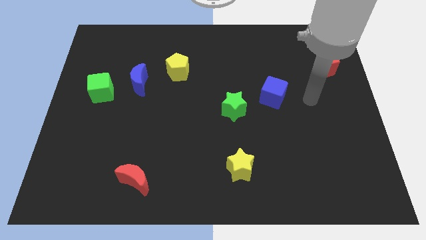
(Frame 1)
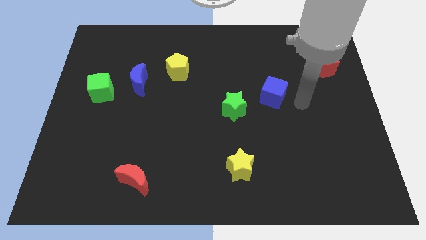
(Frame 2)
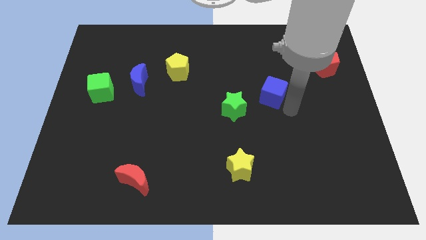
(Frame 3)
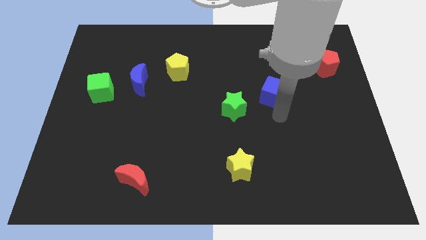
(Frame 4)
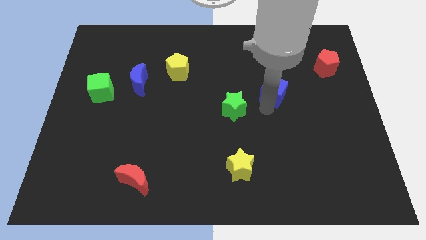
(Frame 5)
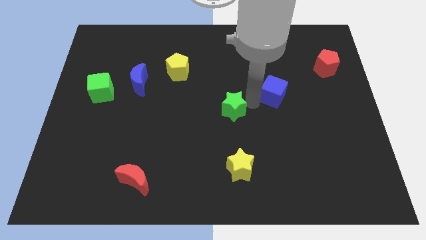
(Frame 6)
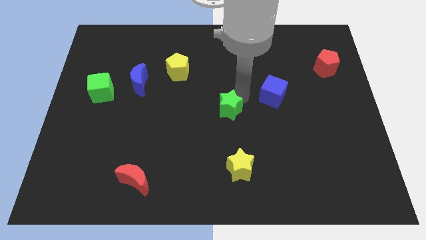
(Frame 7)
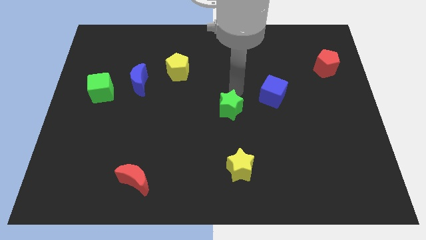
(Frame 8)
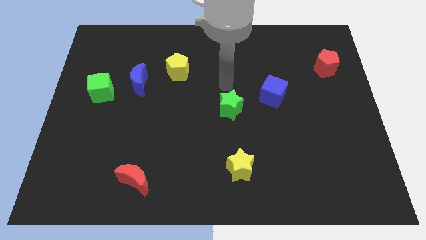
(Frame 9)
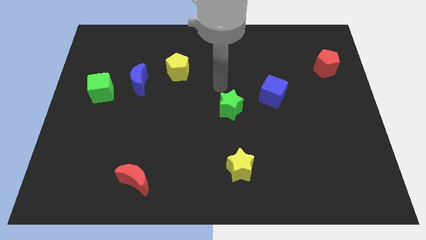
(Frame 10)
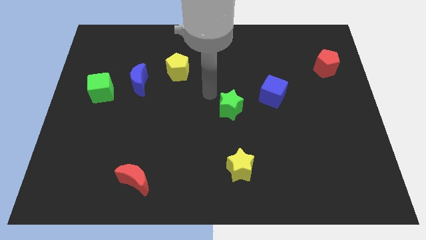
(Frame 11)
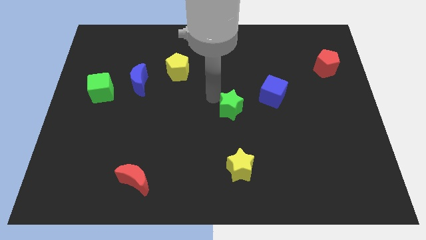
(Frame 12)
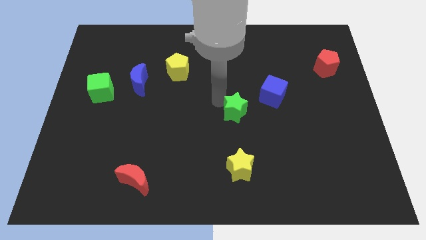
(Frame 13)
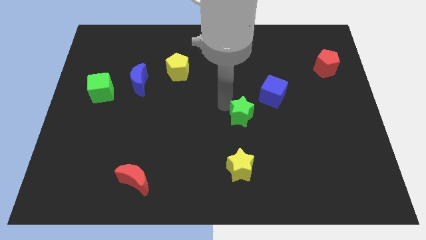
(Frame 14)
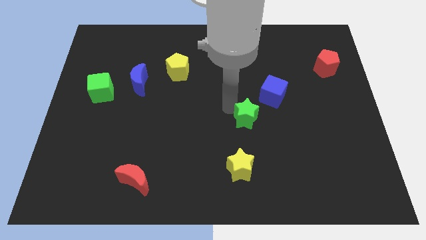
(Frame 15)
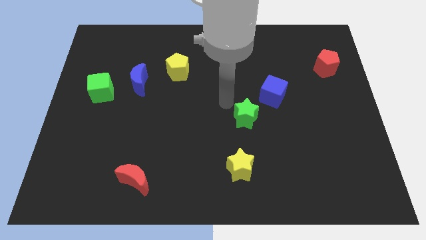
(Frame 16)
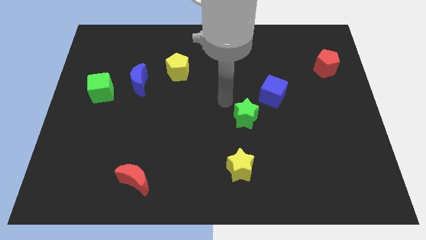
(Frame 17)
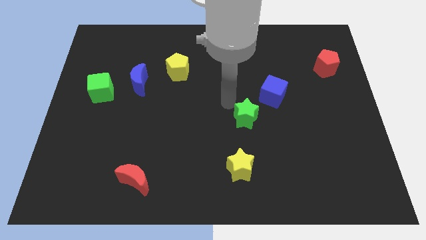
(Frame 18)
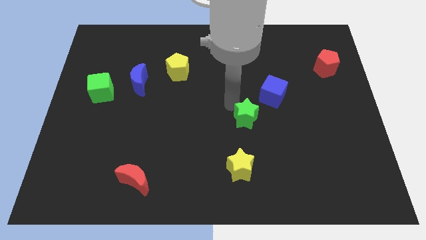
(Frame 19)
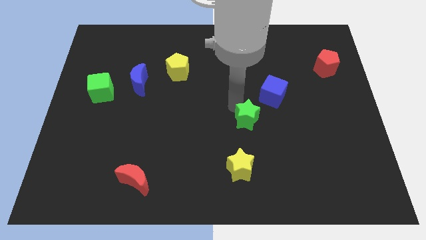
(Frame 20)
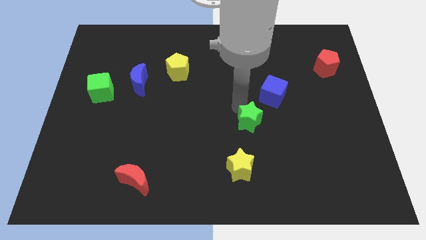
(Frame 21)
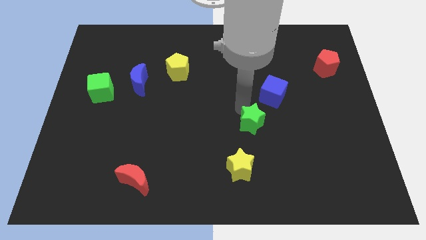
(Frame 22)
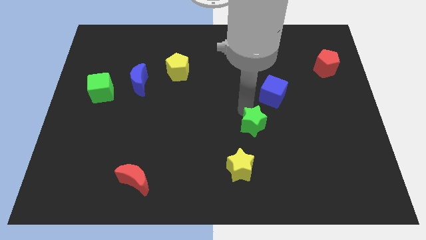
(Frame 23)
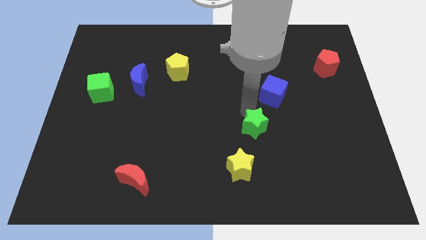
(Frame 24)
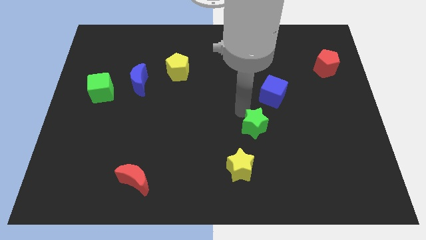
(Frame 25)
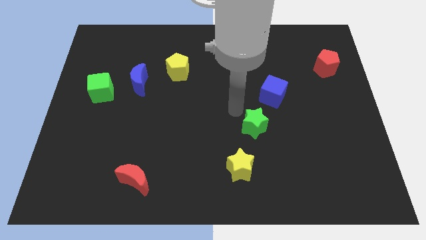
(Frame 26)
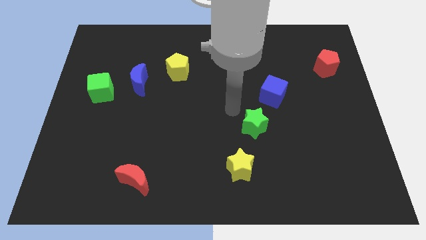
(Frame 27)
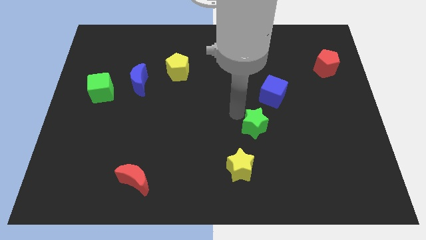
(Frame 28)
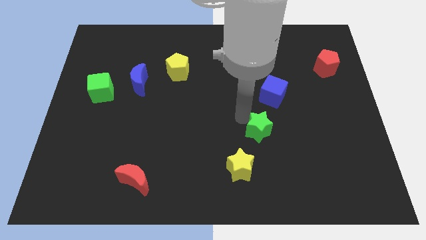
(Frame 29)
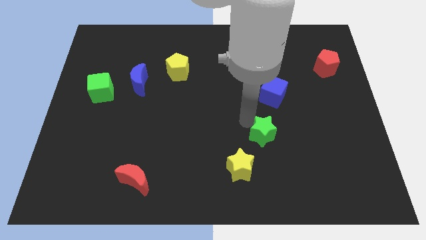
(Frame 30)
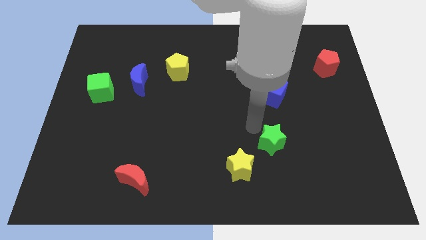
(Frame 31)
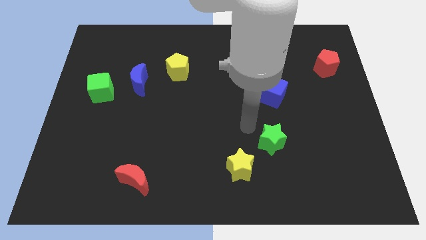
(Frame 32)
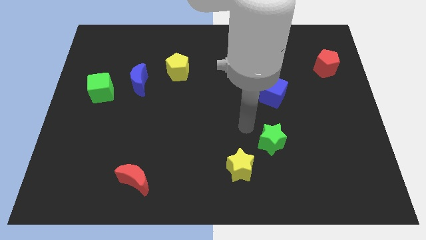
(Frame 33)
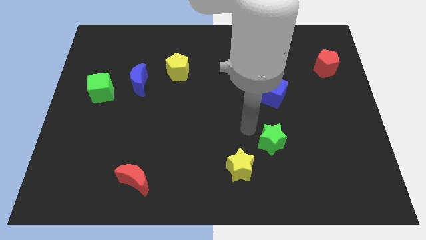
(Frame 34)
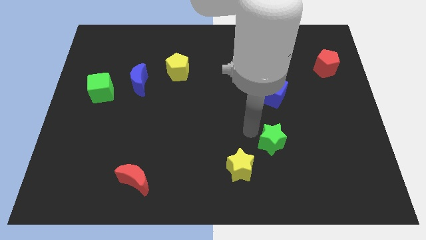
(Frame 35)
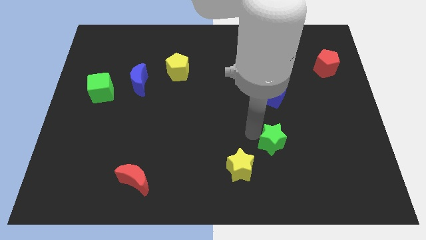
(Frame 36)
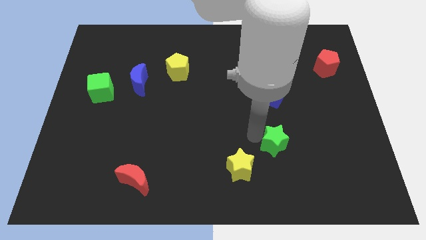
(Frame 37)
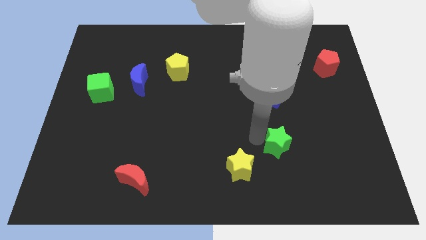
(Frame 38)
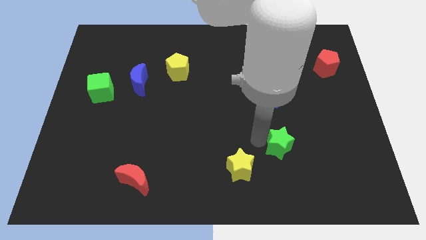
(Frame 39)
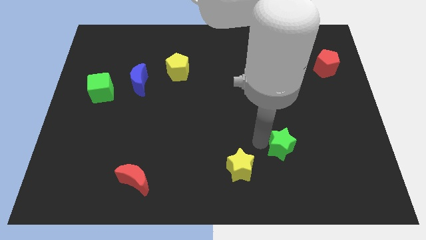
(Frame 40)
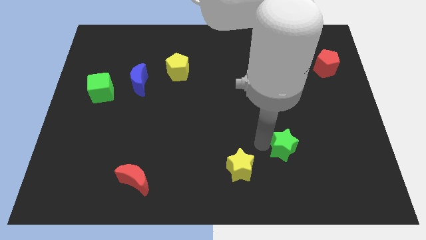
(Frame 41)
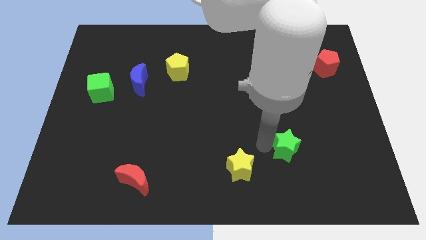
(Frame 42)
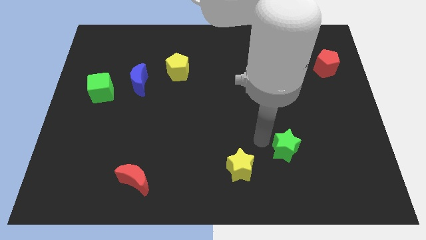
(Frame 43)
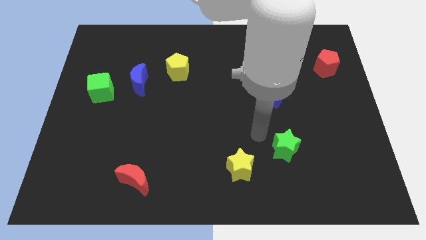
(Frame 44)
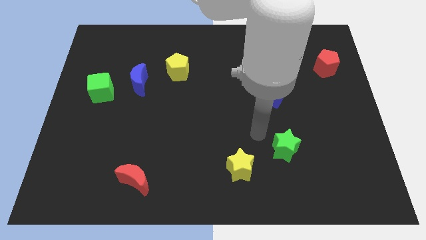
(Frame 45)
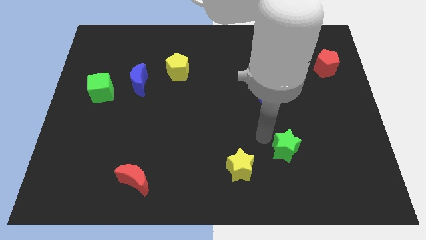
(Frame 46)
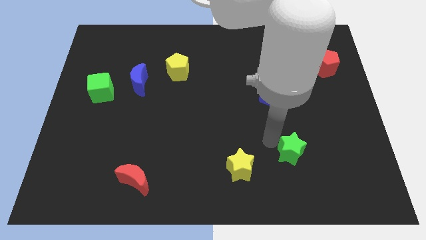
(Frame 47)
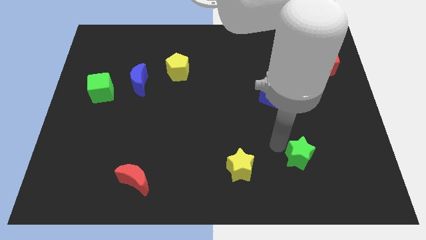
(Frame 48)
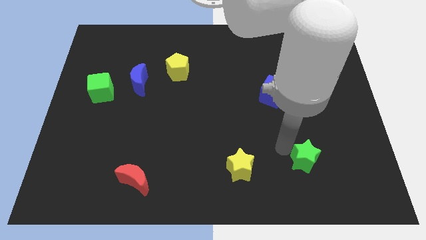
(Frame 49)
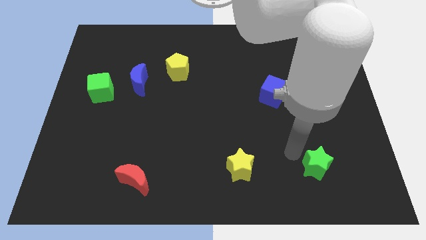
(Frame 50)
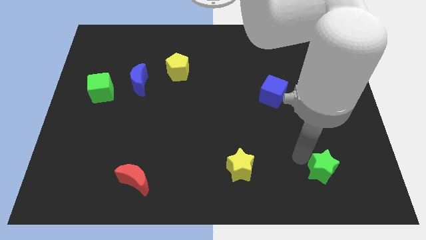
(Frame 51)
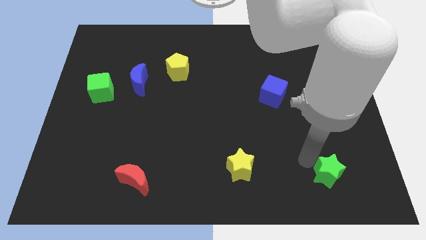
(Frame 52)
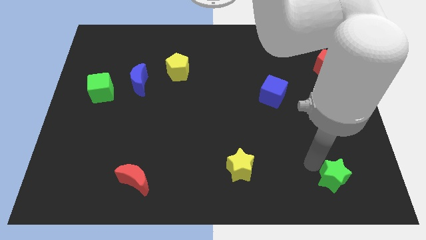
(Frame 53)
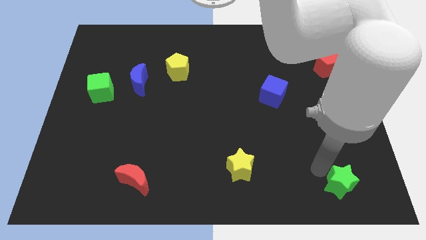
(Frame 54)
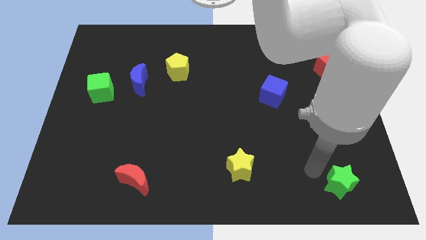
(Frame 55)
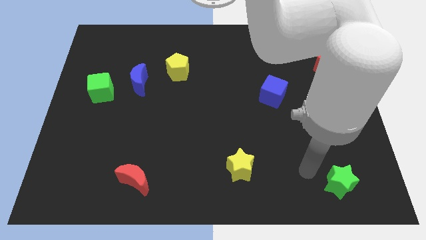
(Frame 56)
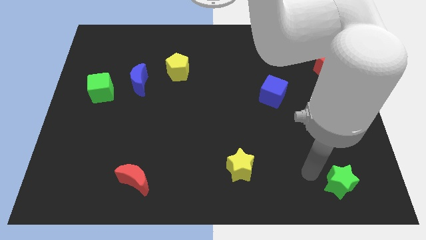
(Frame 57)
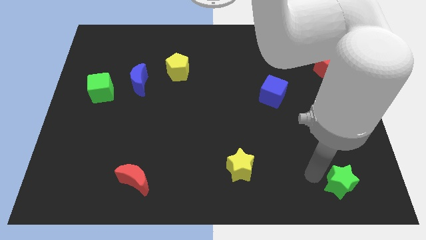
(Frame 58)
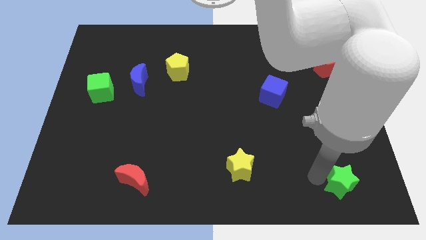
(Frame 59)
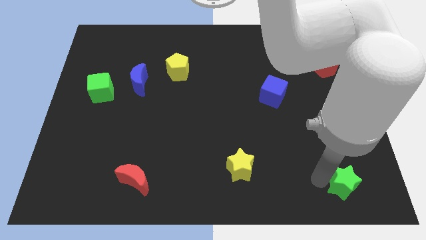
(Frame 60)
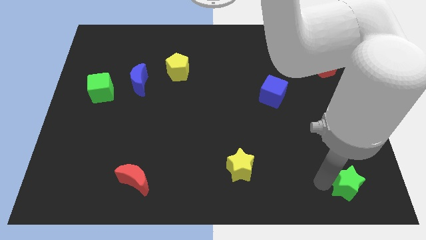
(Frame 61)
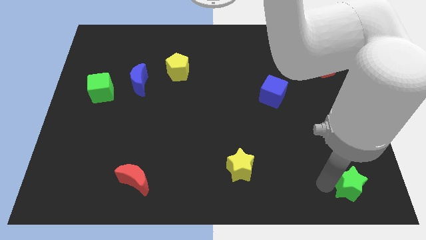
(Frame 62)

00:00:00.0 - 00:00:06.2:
move the green star to the lower right corner
